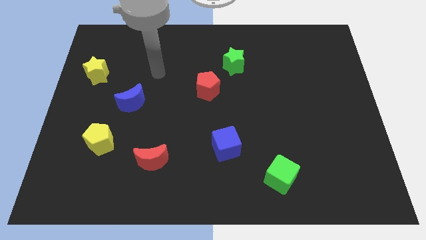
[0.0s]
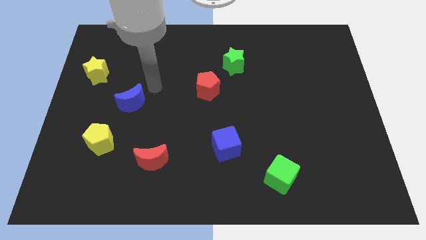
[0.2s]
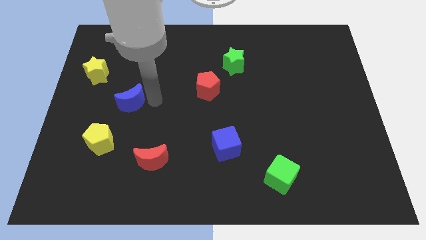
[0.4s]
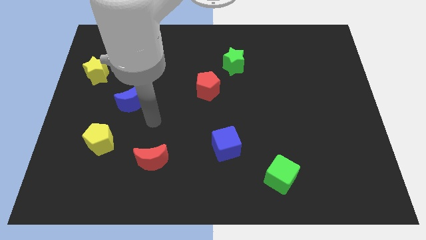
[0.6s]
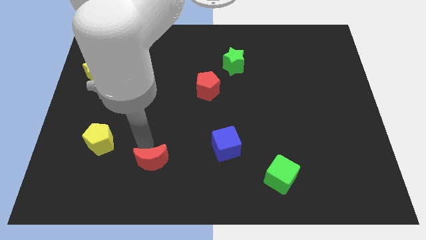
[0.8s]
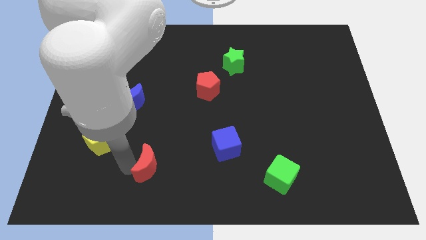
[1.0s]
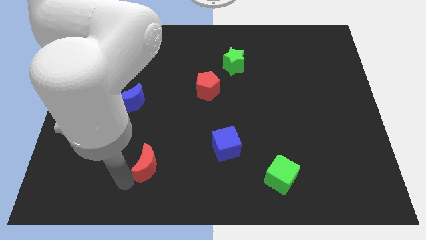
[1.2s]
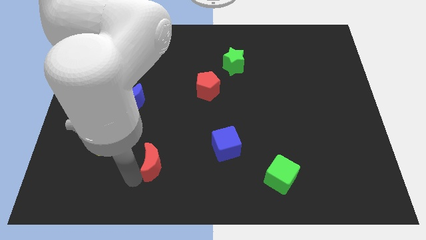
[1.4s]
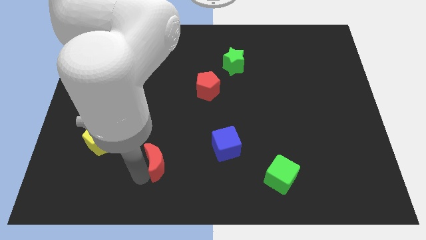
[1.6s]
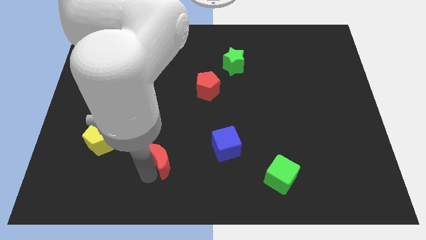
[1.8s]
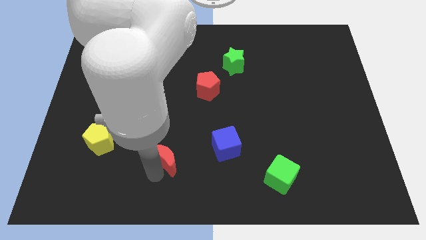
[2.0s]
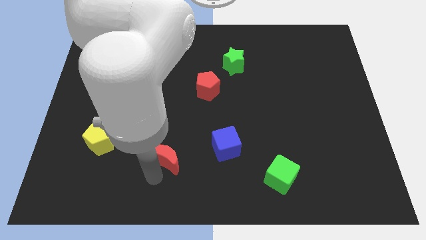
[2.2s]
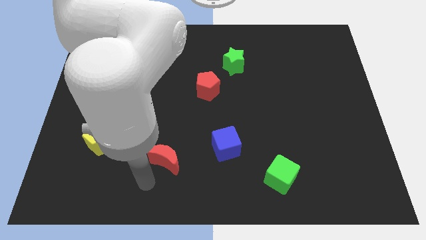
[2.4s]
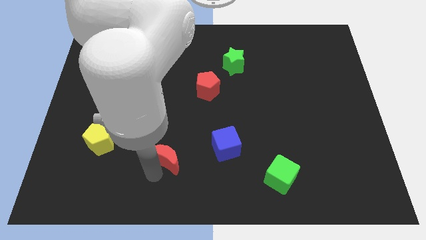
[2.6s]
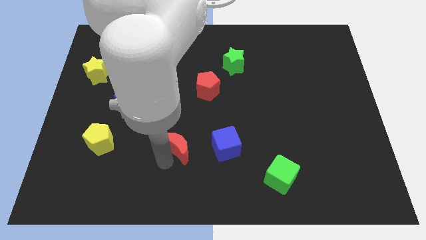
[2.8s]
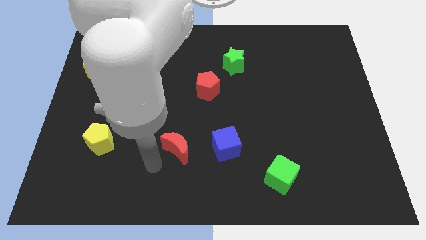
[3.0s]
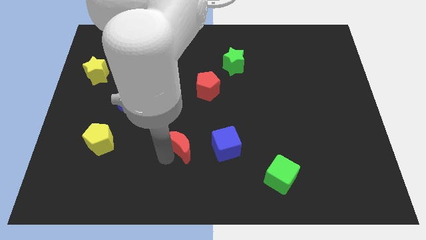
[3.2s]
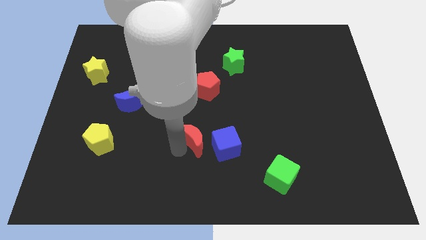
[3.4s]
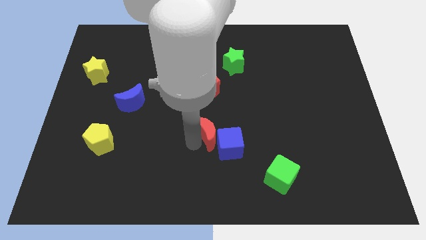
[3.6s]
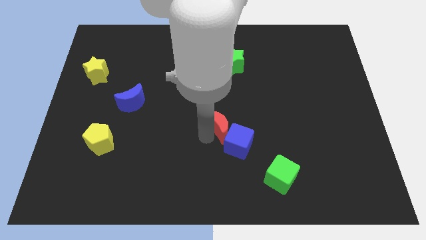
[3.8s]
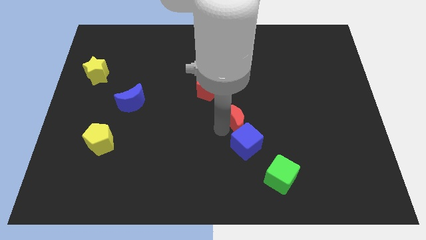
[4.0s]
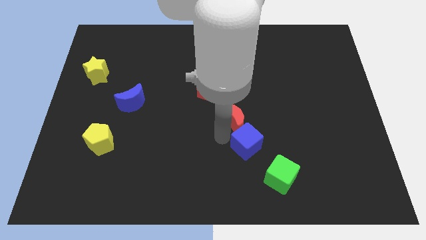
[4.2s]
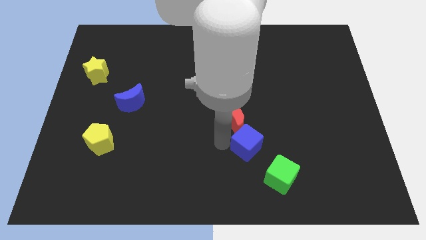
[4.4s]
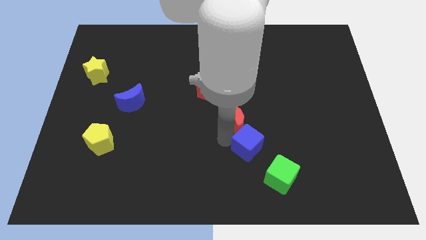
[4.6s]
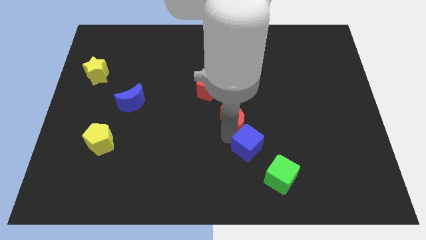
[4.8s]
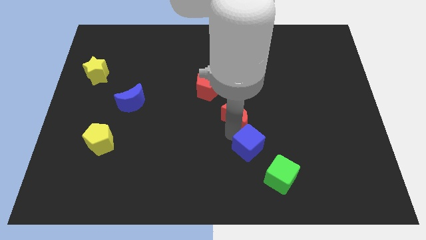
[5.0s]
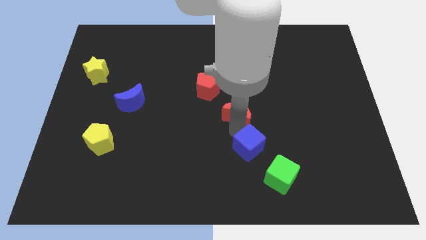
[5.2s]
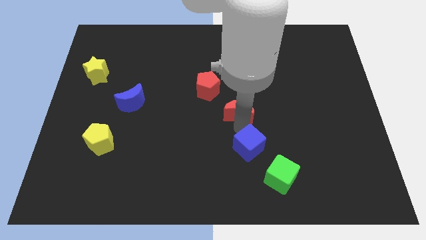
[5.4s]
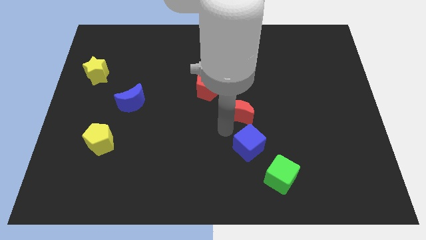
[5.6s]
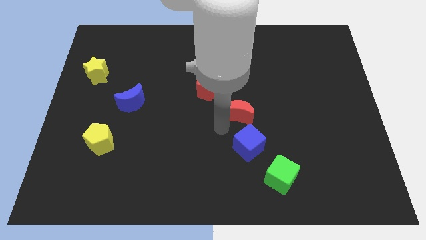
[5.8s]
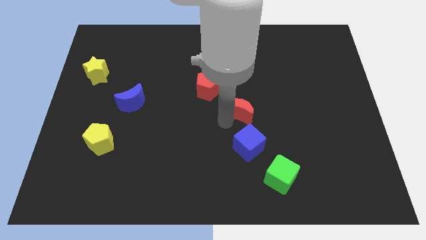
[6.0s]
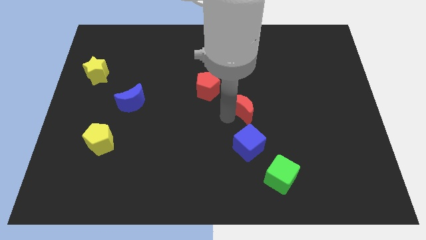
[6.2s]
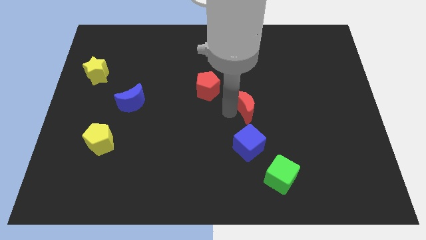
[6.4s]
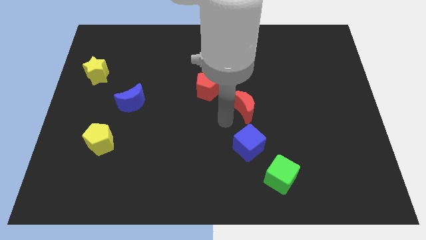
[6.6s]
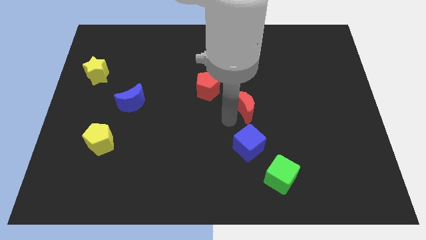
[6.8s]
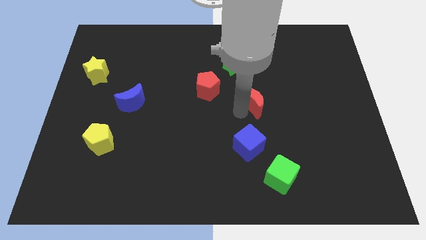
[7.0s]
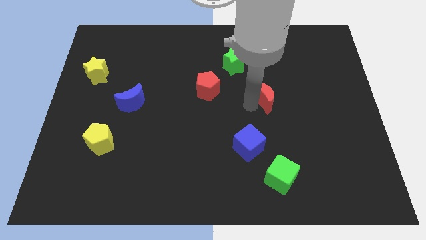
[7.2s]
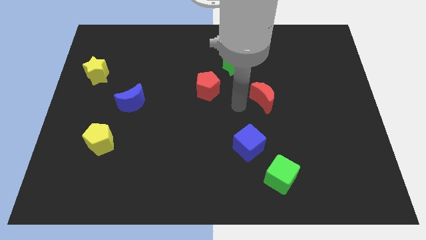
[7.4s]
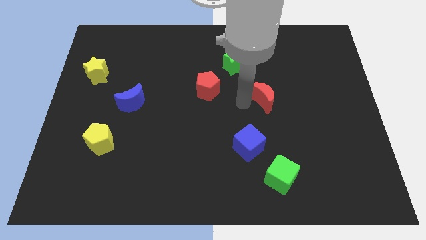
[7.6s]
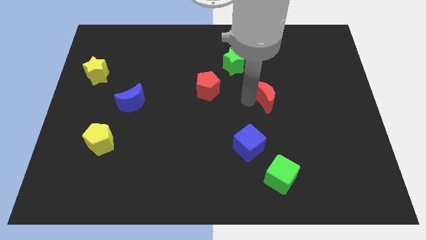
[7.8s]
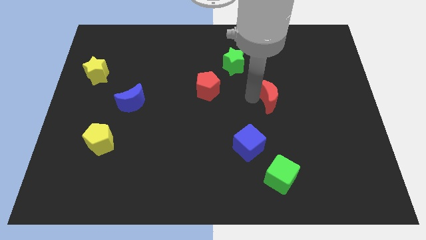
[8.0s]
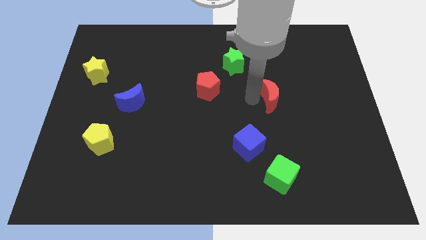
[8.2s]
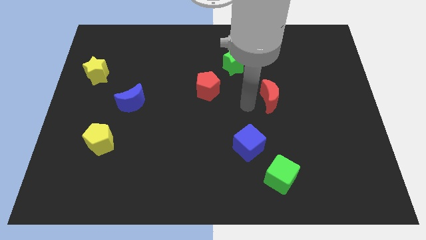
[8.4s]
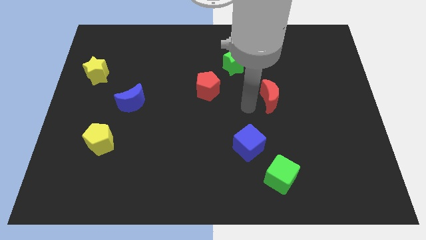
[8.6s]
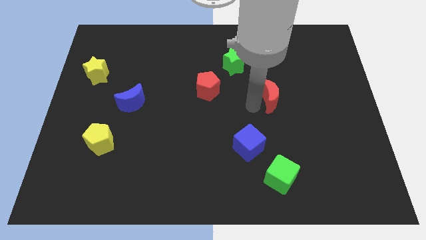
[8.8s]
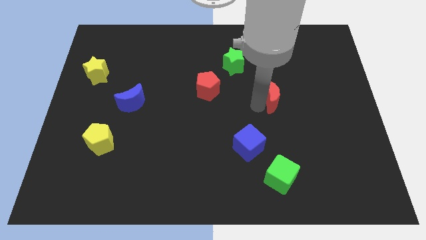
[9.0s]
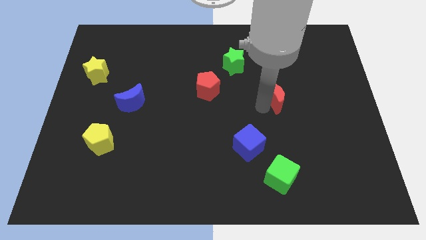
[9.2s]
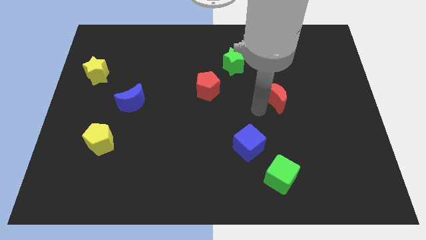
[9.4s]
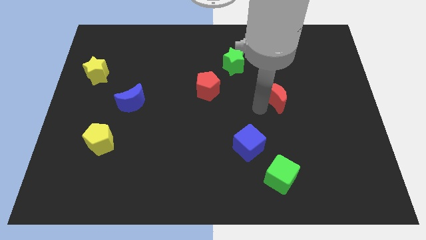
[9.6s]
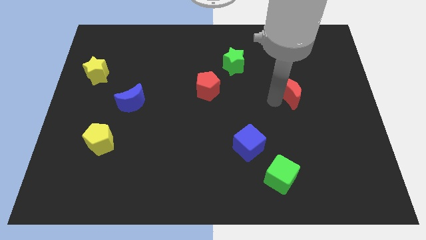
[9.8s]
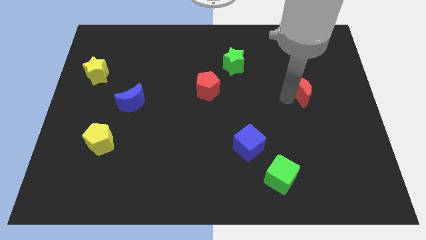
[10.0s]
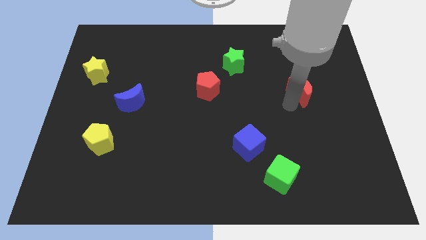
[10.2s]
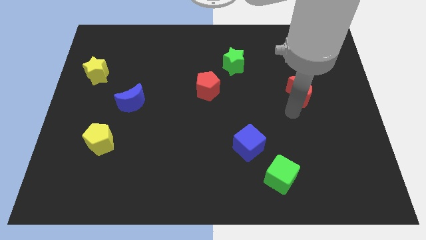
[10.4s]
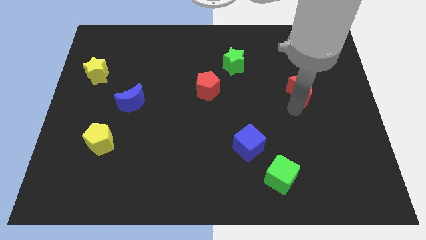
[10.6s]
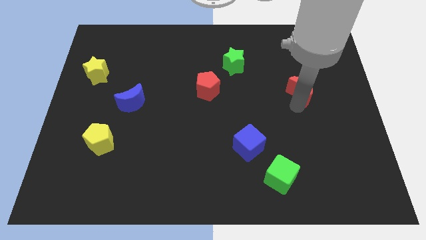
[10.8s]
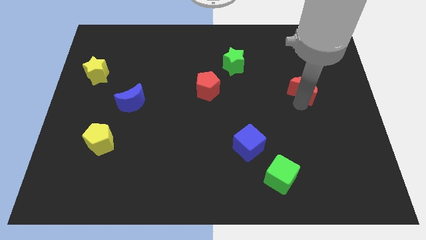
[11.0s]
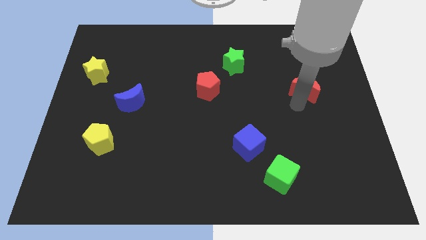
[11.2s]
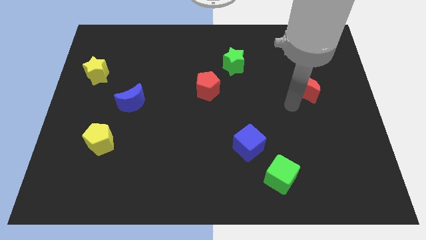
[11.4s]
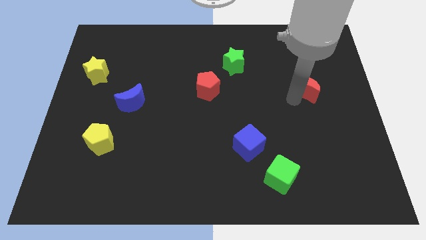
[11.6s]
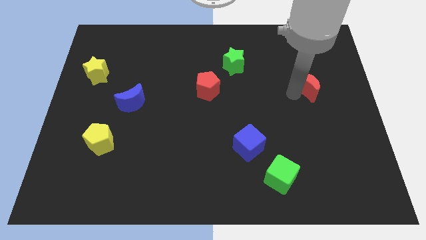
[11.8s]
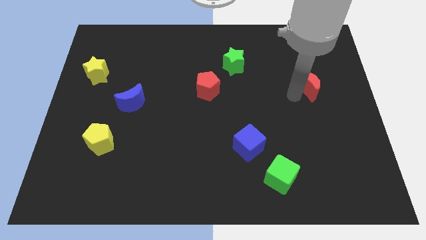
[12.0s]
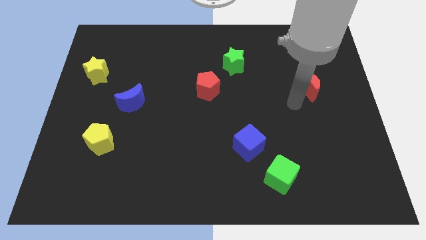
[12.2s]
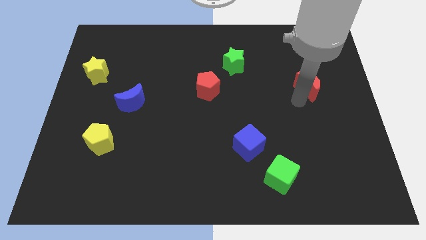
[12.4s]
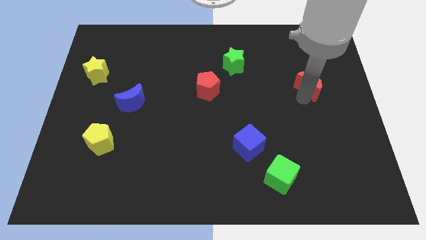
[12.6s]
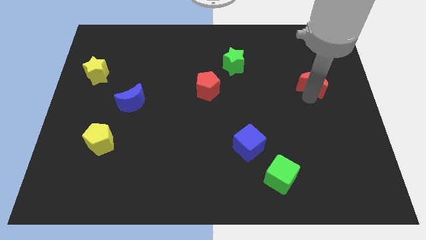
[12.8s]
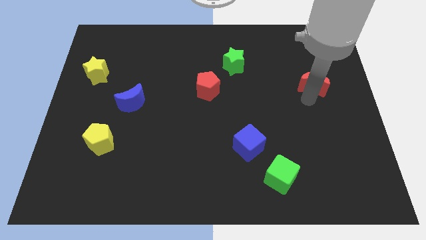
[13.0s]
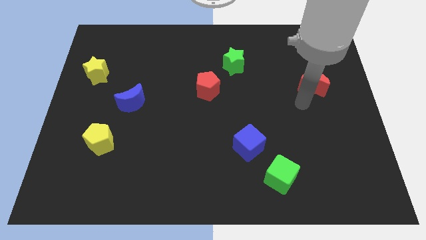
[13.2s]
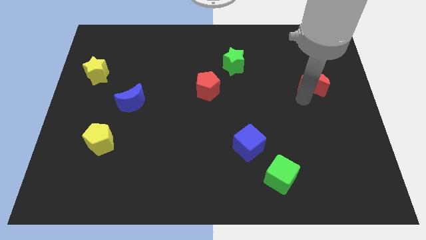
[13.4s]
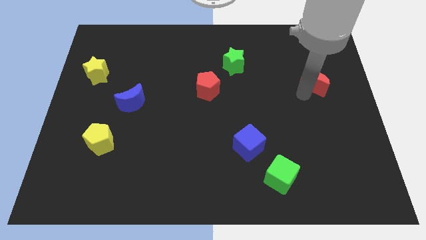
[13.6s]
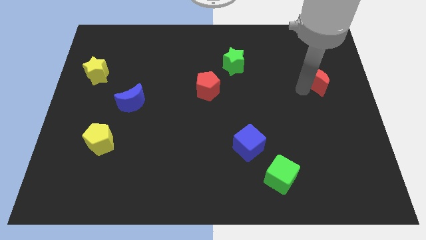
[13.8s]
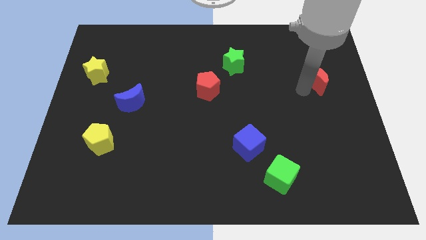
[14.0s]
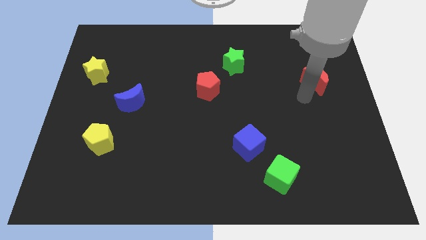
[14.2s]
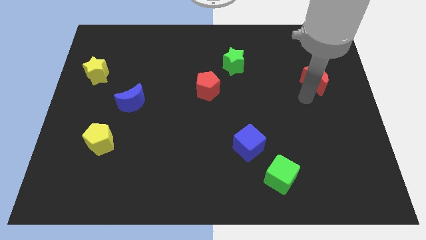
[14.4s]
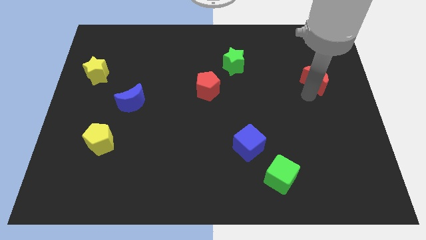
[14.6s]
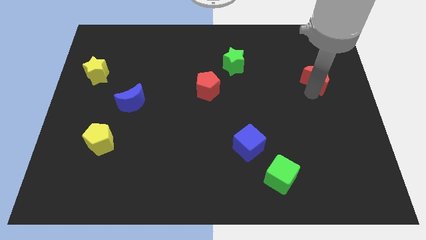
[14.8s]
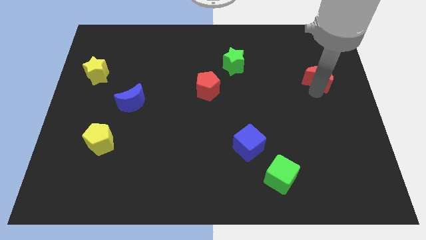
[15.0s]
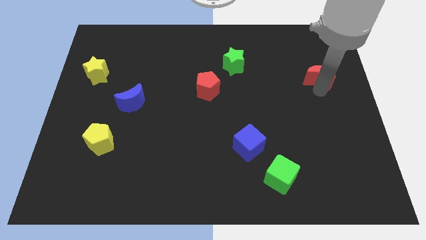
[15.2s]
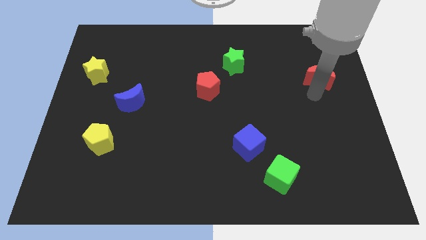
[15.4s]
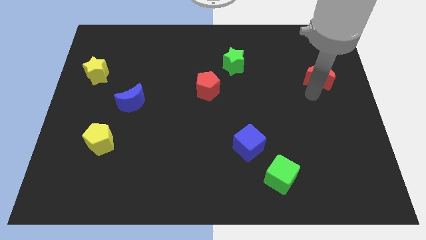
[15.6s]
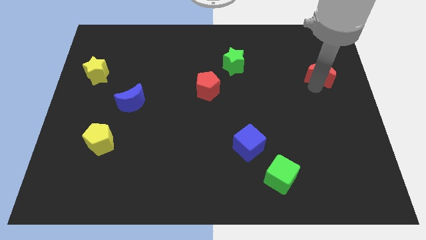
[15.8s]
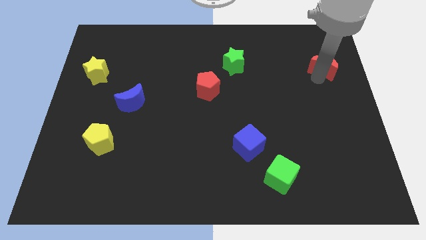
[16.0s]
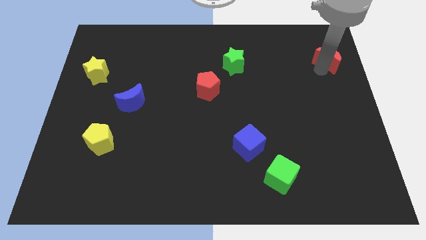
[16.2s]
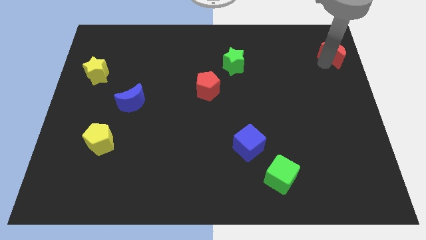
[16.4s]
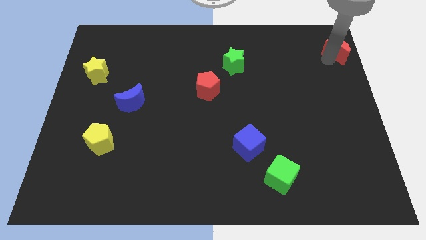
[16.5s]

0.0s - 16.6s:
slide the red moon to the top right of the board
